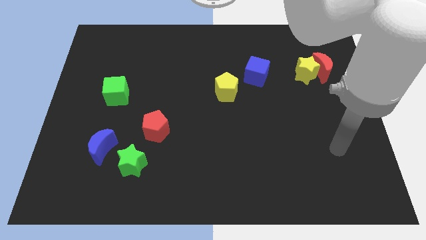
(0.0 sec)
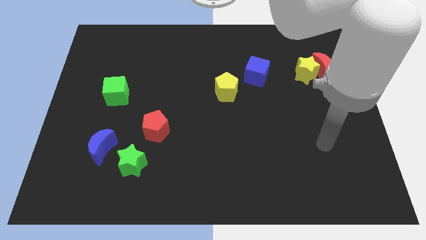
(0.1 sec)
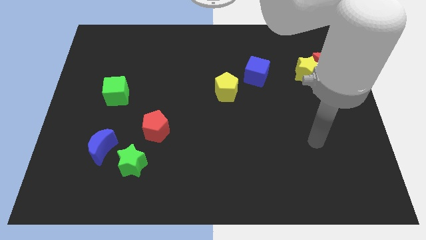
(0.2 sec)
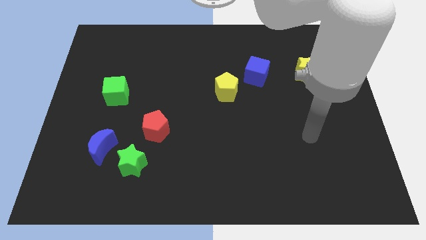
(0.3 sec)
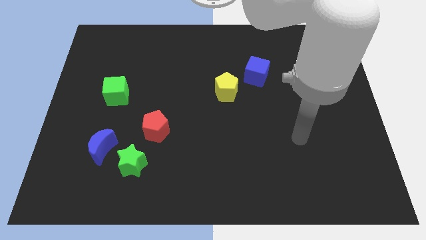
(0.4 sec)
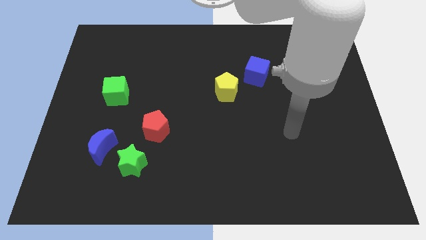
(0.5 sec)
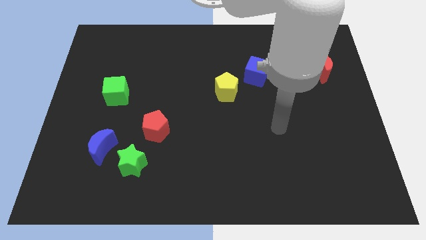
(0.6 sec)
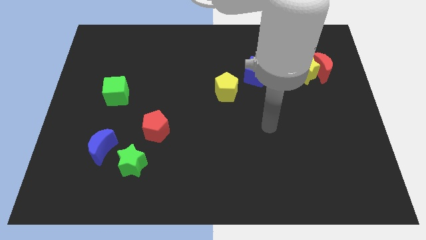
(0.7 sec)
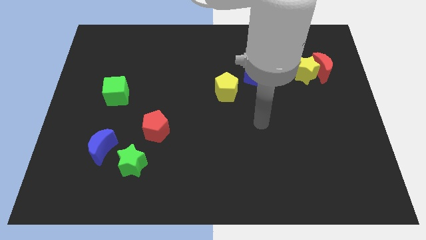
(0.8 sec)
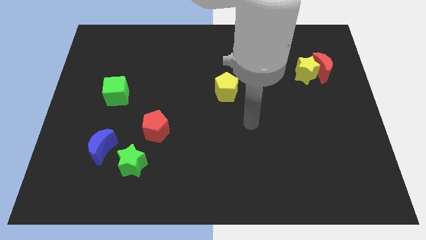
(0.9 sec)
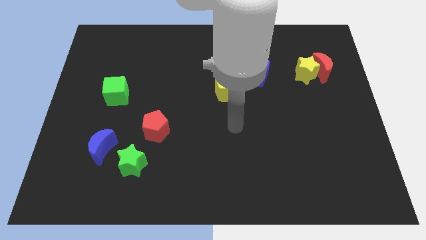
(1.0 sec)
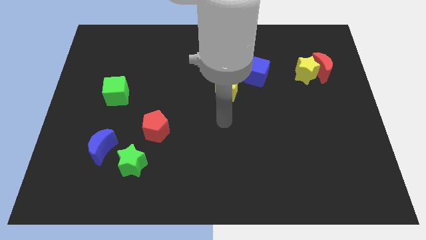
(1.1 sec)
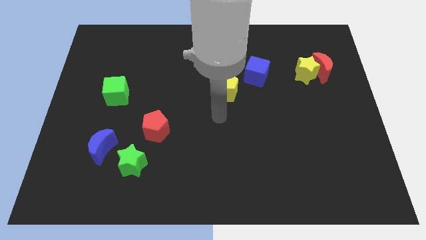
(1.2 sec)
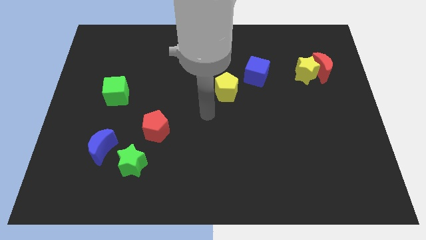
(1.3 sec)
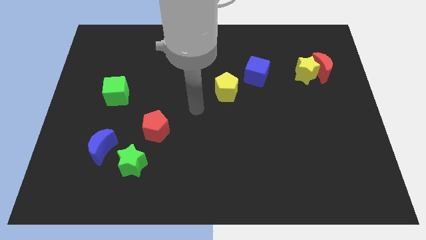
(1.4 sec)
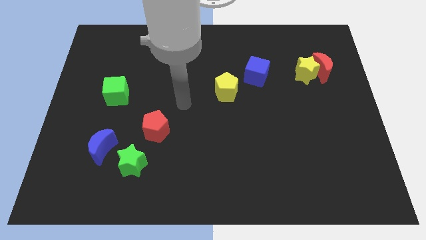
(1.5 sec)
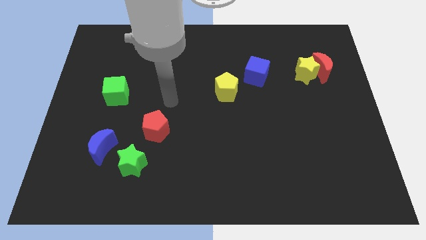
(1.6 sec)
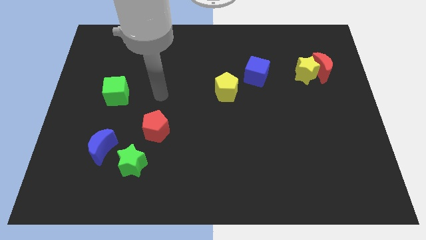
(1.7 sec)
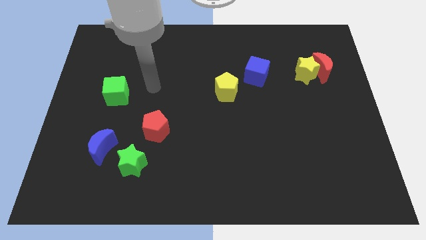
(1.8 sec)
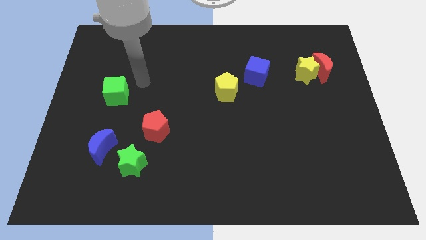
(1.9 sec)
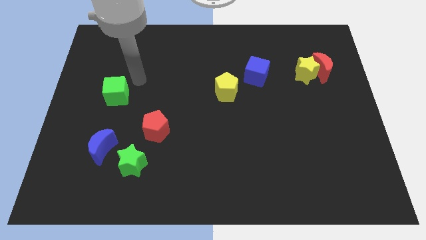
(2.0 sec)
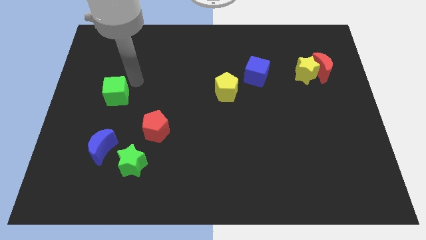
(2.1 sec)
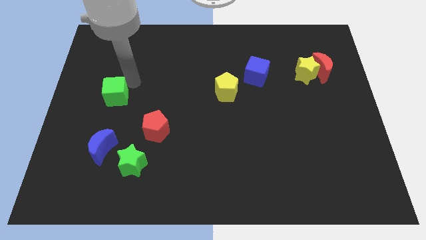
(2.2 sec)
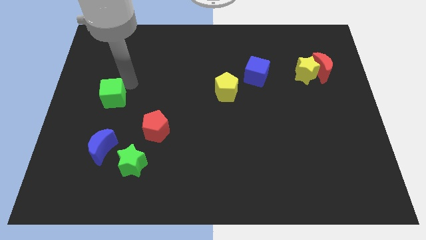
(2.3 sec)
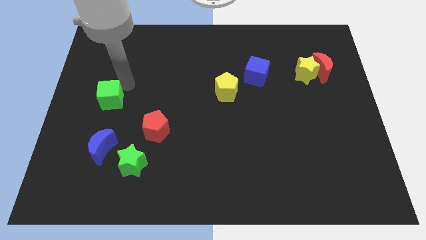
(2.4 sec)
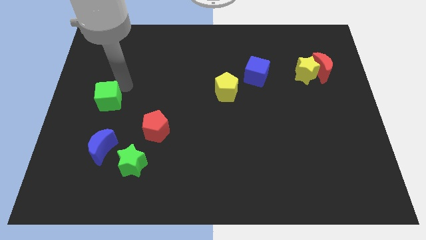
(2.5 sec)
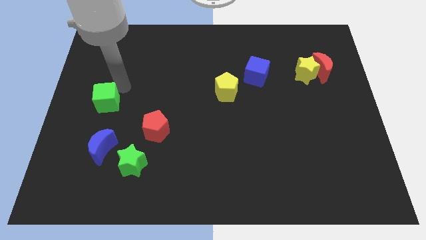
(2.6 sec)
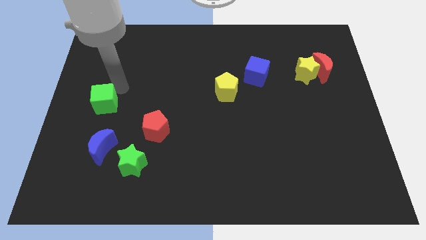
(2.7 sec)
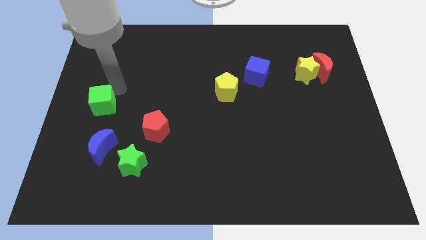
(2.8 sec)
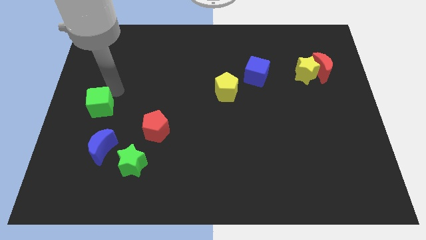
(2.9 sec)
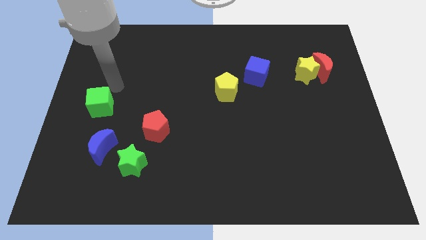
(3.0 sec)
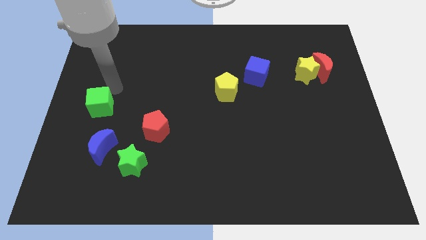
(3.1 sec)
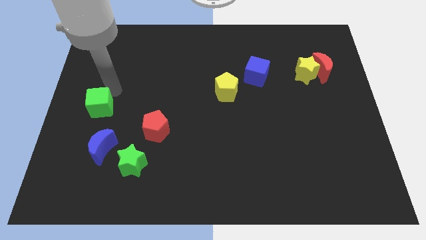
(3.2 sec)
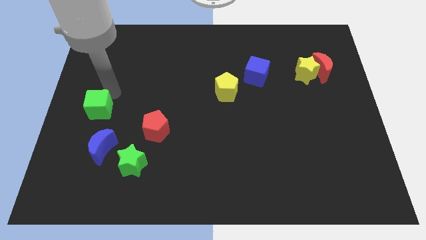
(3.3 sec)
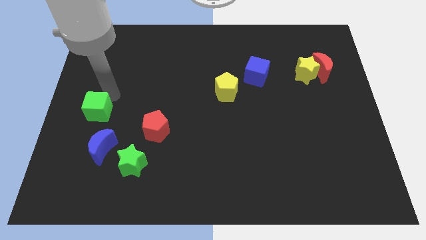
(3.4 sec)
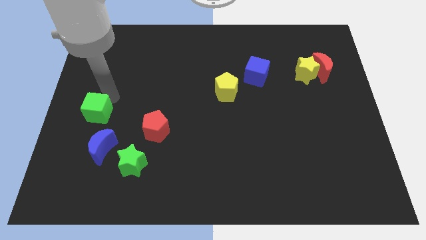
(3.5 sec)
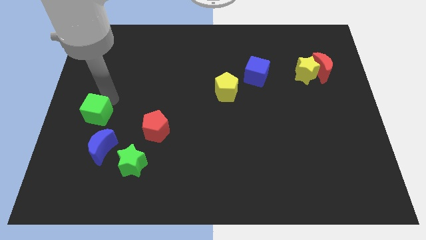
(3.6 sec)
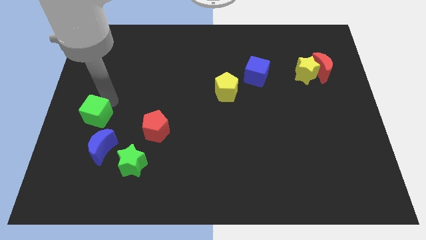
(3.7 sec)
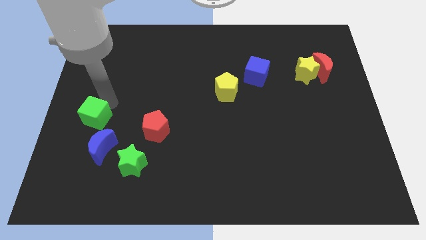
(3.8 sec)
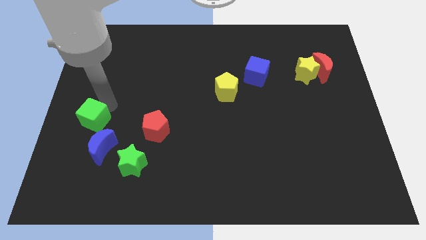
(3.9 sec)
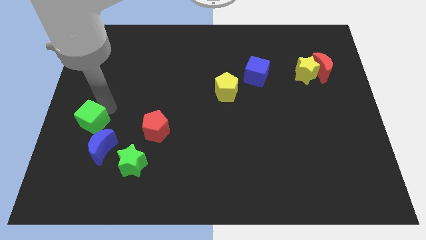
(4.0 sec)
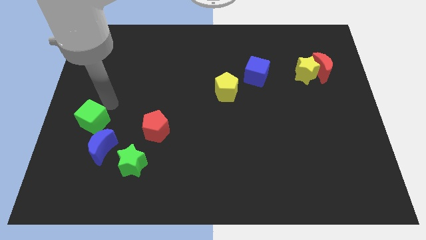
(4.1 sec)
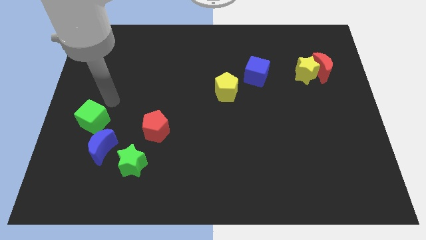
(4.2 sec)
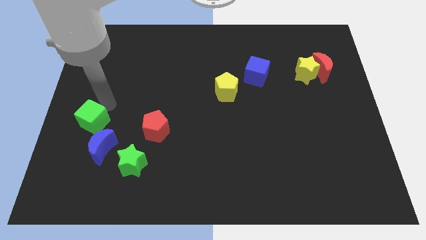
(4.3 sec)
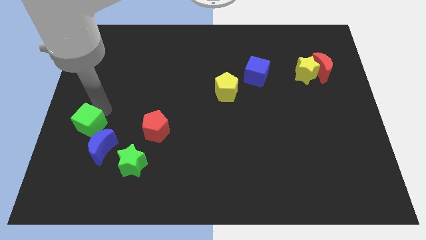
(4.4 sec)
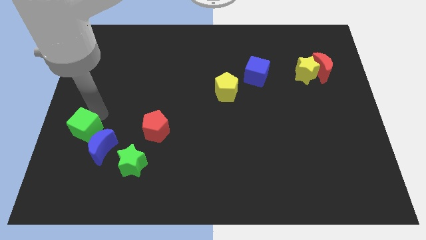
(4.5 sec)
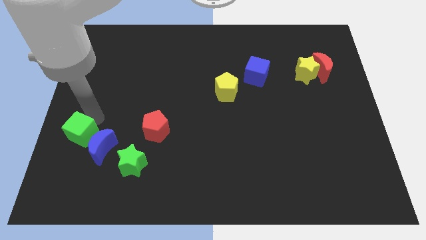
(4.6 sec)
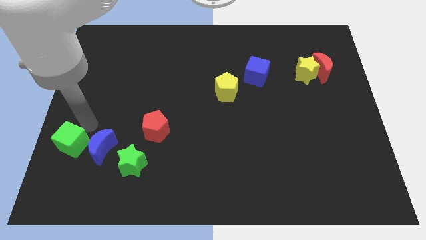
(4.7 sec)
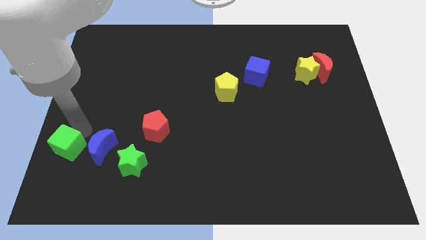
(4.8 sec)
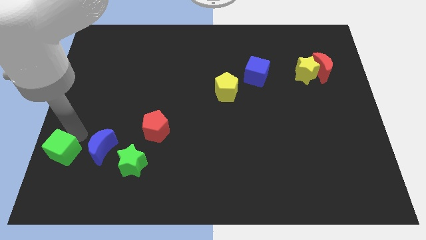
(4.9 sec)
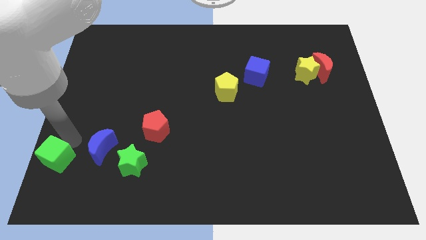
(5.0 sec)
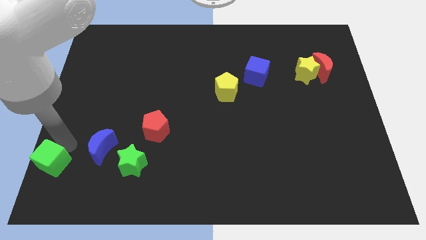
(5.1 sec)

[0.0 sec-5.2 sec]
slide the green cube to the bottom left corner

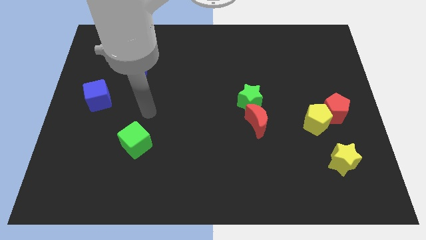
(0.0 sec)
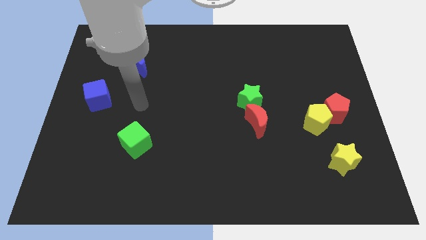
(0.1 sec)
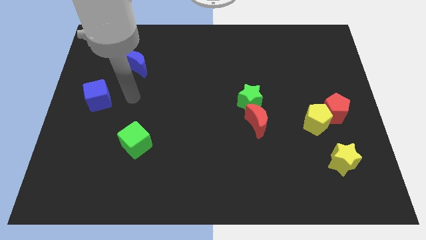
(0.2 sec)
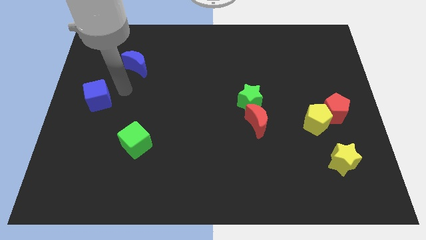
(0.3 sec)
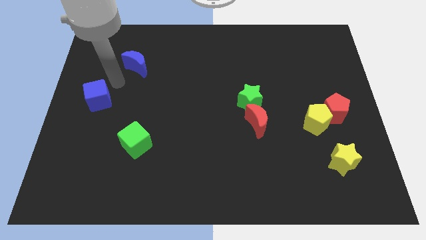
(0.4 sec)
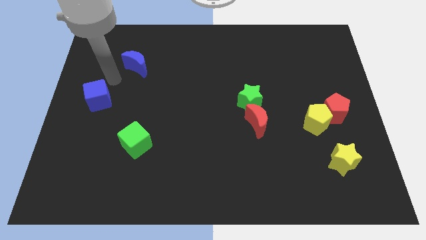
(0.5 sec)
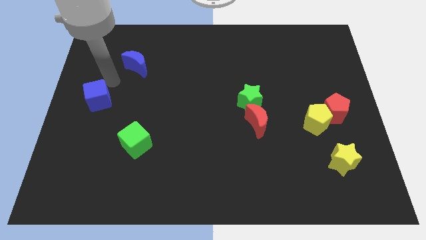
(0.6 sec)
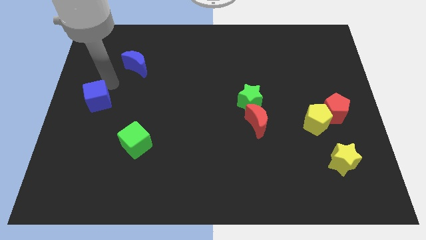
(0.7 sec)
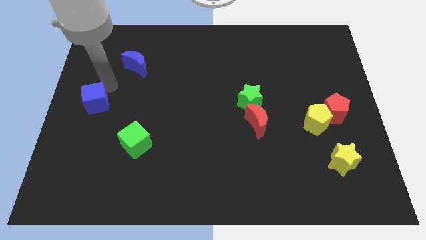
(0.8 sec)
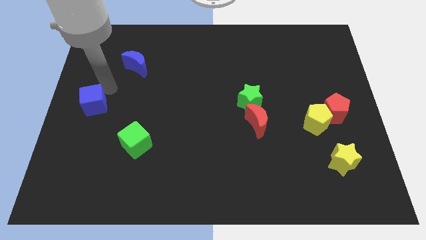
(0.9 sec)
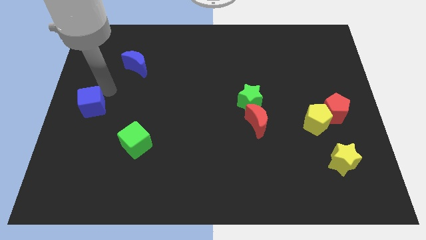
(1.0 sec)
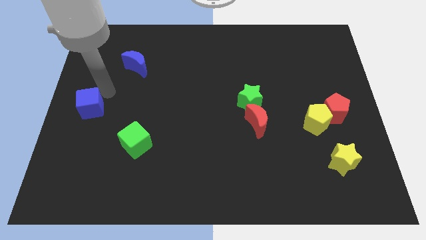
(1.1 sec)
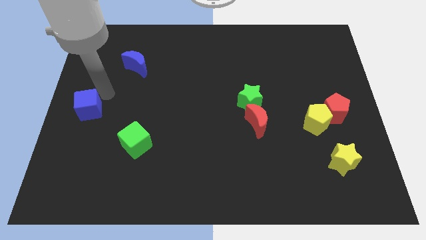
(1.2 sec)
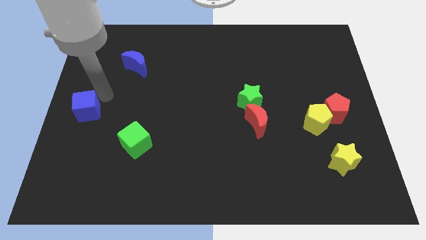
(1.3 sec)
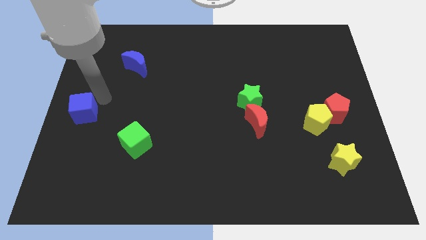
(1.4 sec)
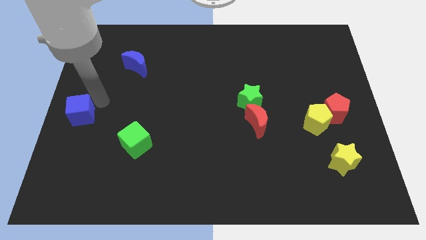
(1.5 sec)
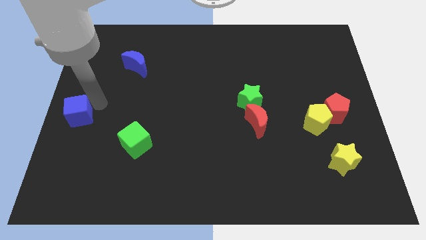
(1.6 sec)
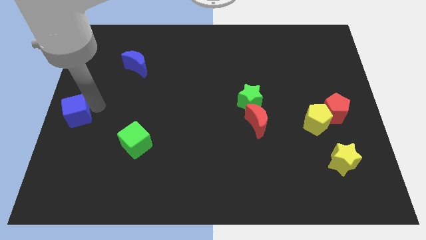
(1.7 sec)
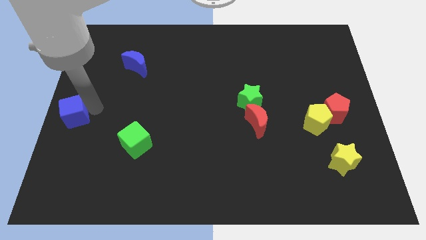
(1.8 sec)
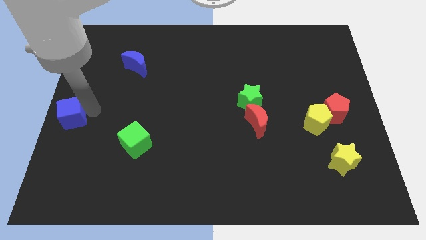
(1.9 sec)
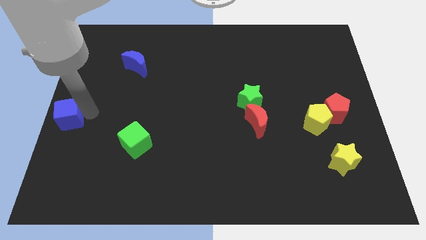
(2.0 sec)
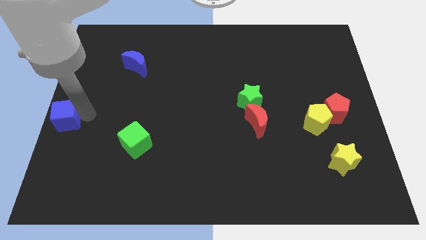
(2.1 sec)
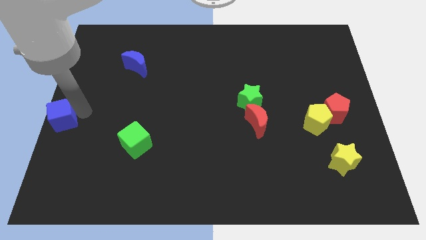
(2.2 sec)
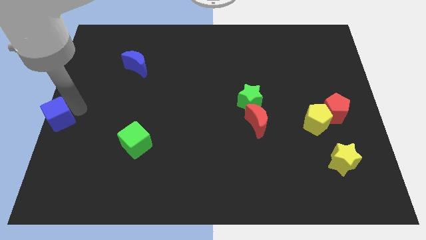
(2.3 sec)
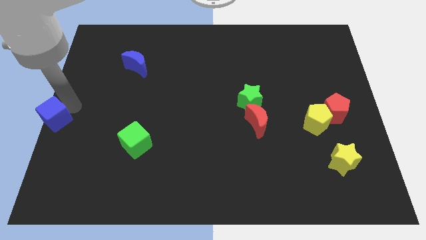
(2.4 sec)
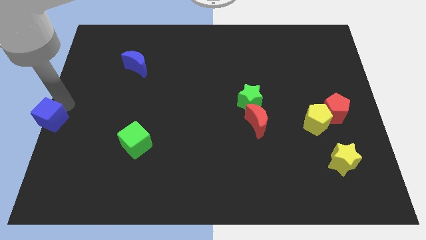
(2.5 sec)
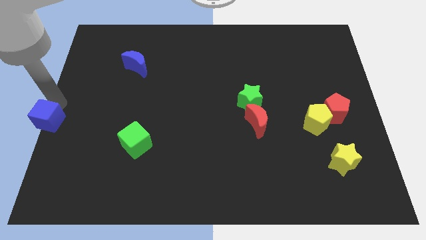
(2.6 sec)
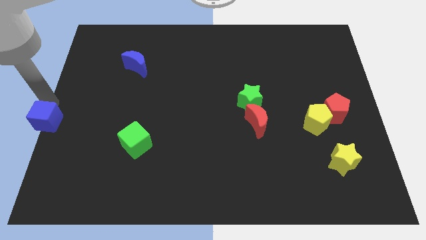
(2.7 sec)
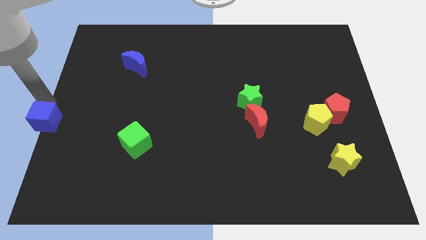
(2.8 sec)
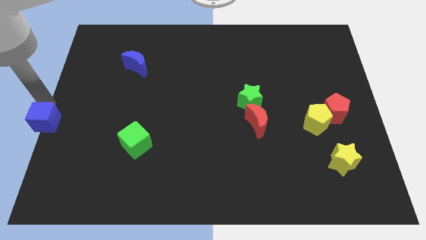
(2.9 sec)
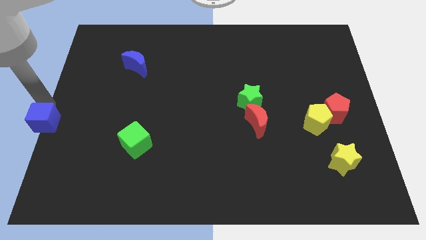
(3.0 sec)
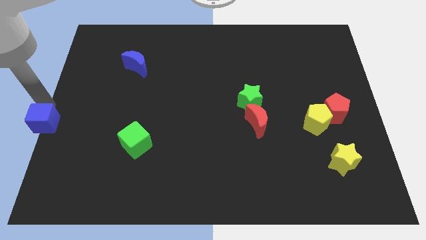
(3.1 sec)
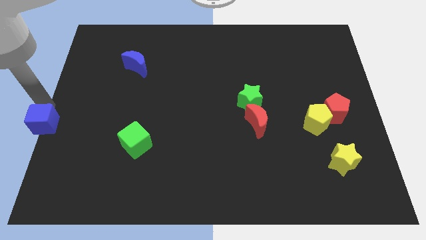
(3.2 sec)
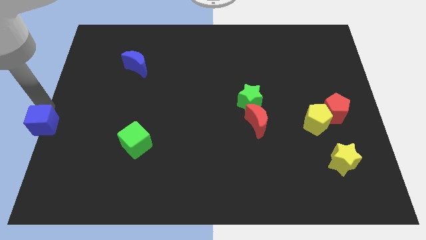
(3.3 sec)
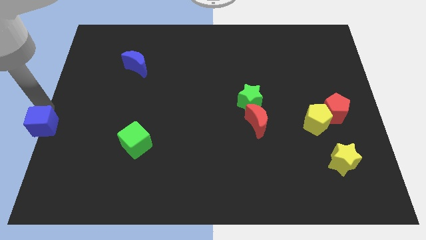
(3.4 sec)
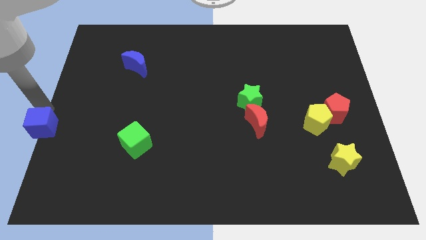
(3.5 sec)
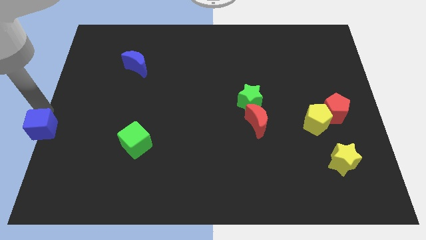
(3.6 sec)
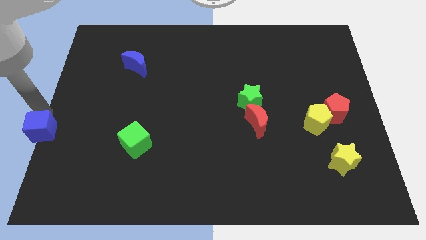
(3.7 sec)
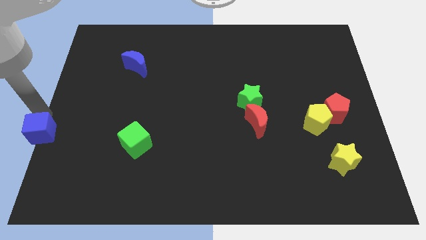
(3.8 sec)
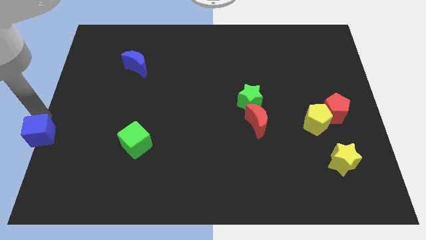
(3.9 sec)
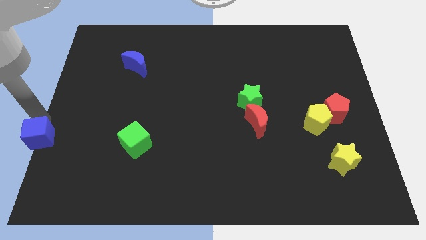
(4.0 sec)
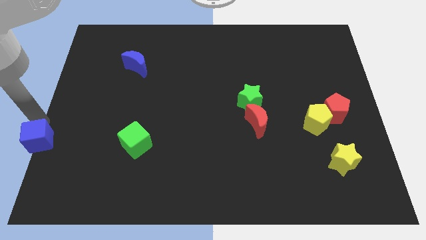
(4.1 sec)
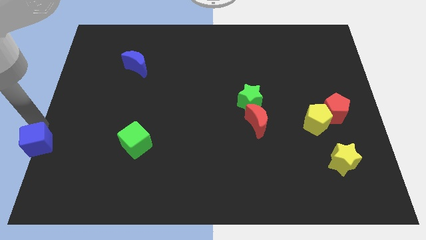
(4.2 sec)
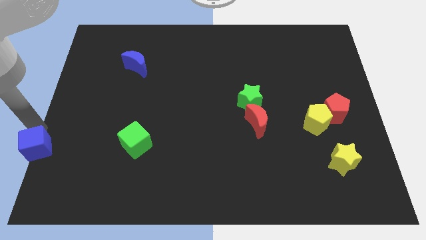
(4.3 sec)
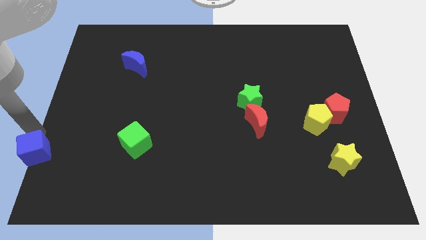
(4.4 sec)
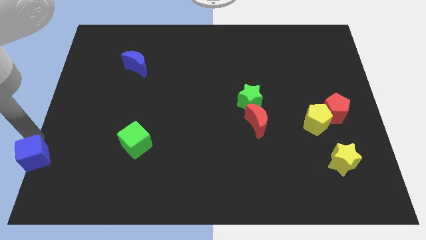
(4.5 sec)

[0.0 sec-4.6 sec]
push the blue cube to the bottom left corner
